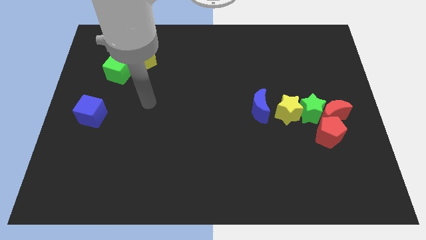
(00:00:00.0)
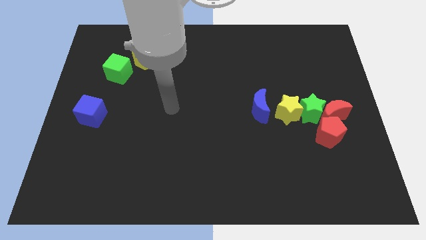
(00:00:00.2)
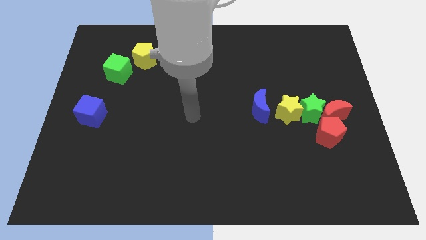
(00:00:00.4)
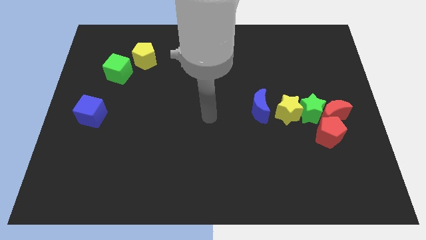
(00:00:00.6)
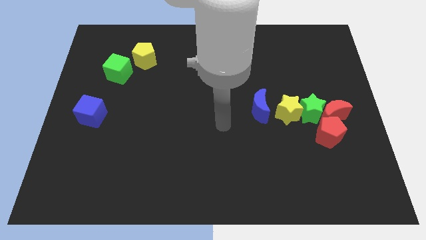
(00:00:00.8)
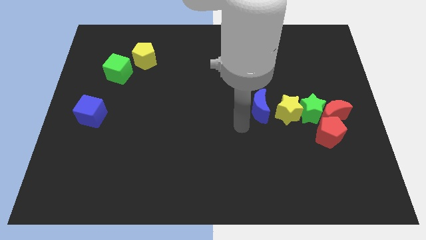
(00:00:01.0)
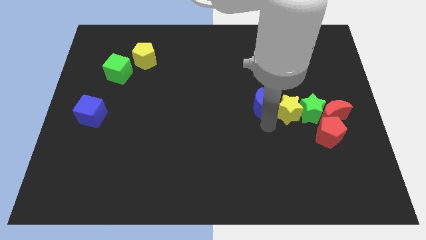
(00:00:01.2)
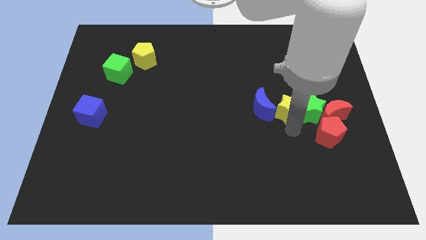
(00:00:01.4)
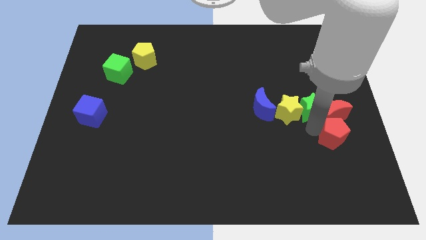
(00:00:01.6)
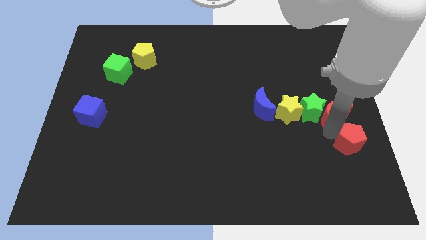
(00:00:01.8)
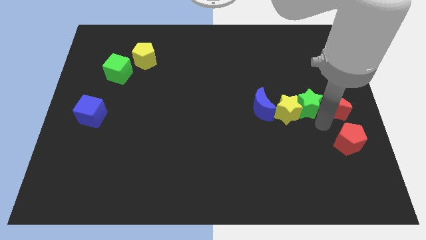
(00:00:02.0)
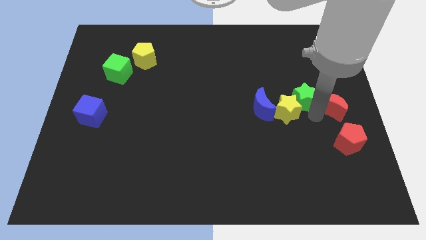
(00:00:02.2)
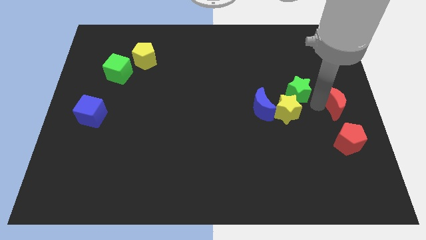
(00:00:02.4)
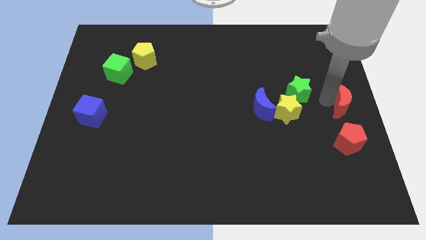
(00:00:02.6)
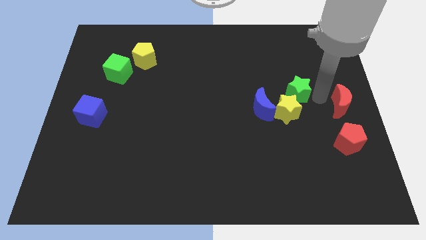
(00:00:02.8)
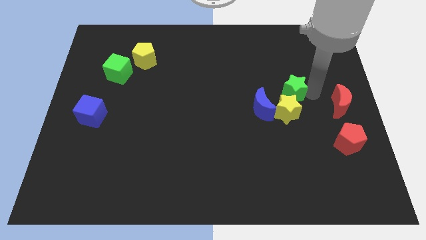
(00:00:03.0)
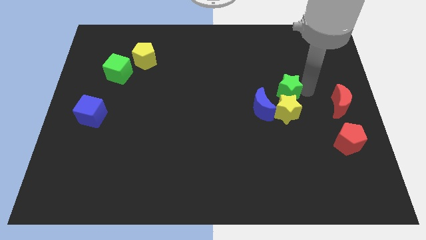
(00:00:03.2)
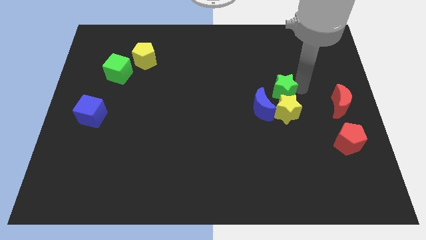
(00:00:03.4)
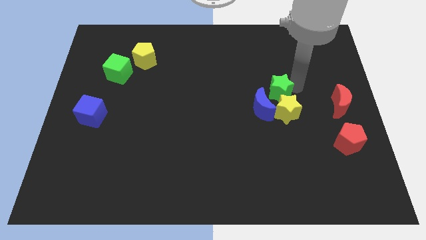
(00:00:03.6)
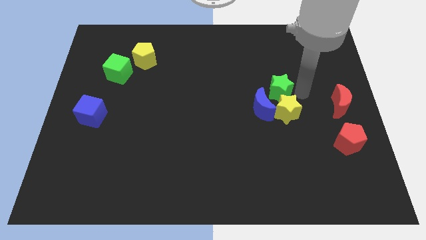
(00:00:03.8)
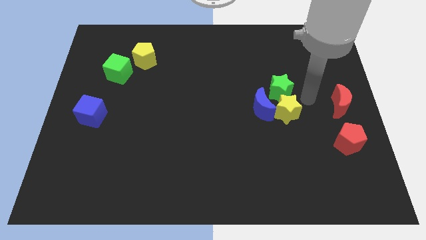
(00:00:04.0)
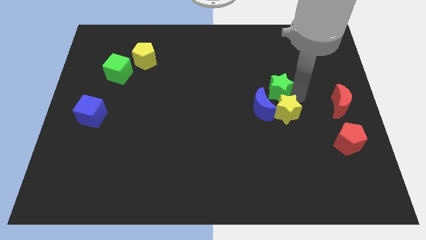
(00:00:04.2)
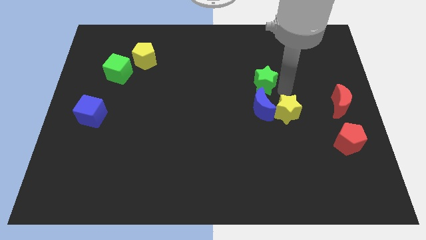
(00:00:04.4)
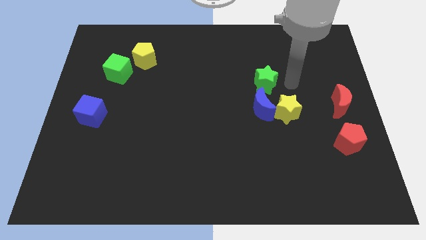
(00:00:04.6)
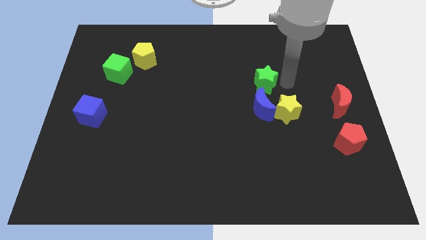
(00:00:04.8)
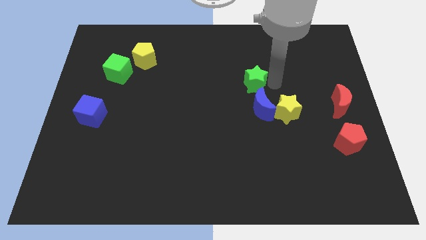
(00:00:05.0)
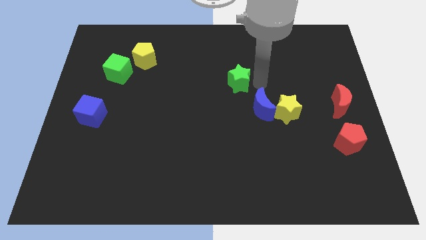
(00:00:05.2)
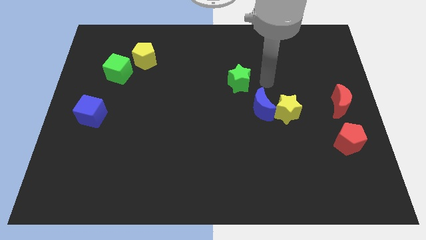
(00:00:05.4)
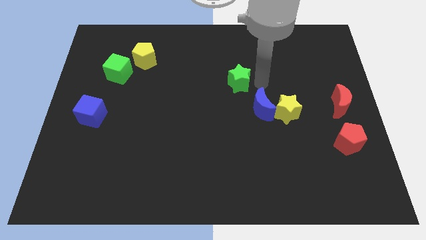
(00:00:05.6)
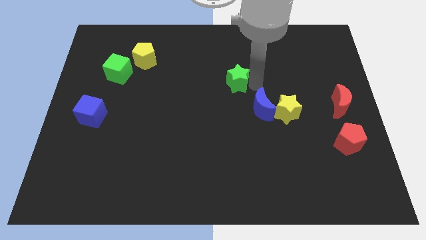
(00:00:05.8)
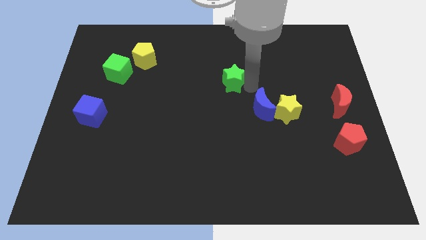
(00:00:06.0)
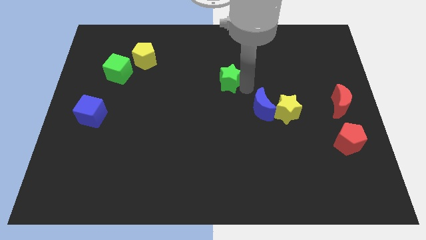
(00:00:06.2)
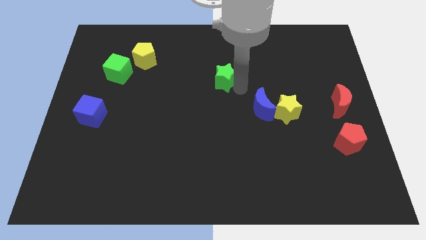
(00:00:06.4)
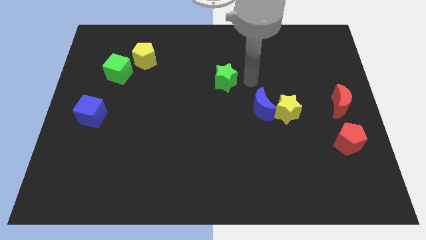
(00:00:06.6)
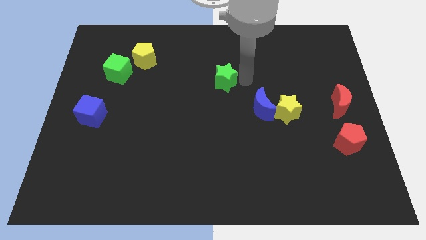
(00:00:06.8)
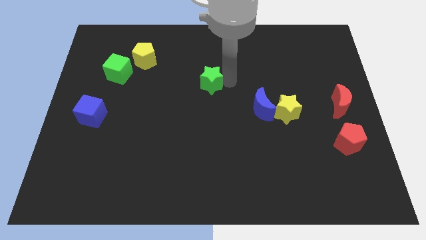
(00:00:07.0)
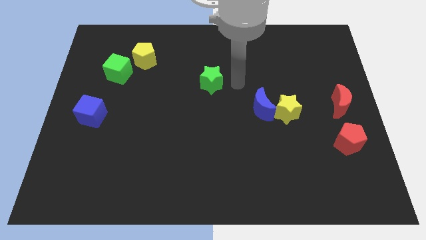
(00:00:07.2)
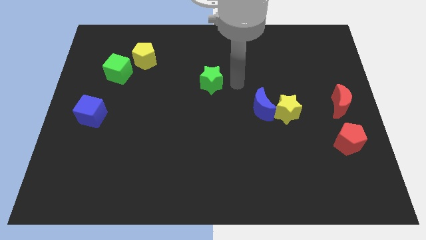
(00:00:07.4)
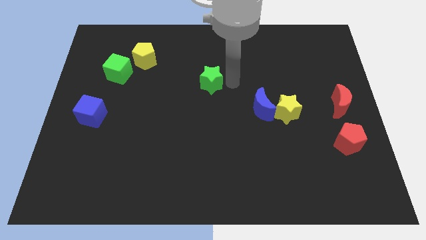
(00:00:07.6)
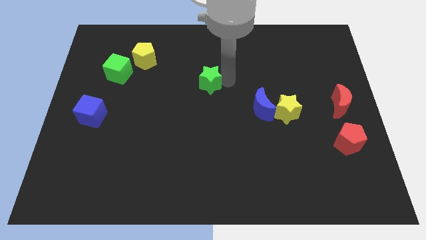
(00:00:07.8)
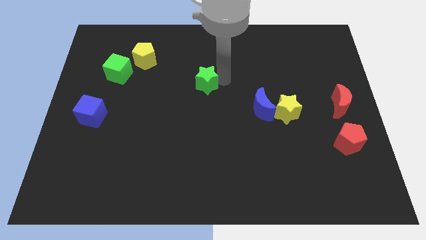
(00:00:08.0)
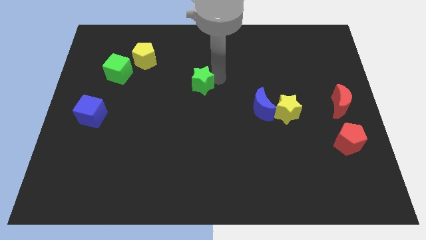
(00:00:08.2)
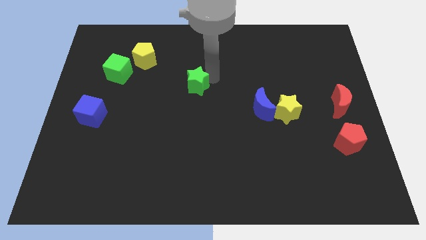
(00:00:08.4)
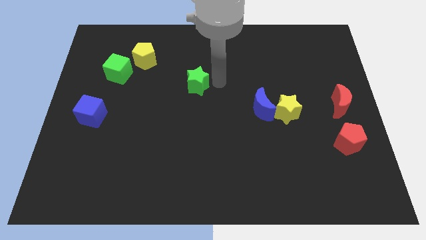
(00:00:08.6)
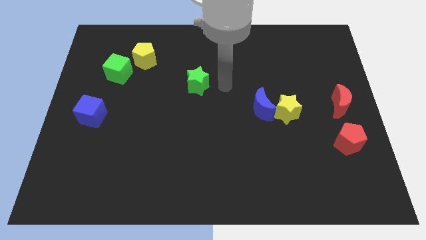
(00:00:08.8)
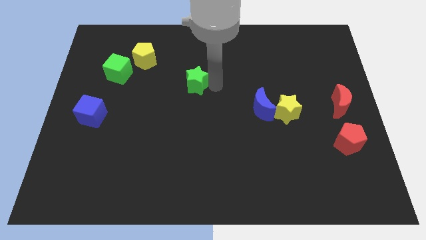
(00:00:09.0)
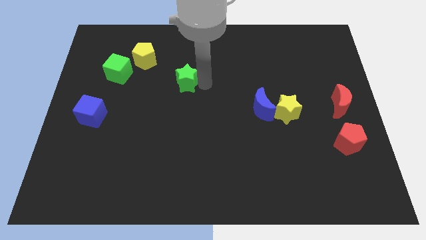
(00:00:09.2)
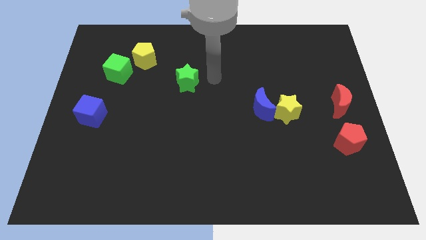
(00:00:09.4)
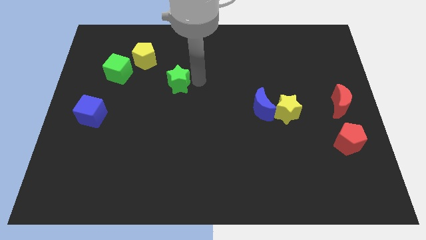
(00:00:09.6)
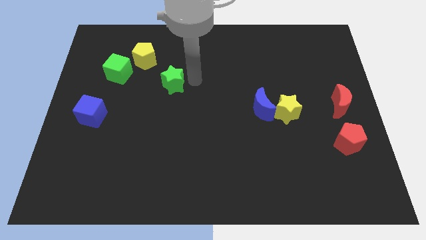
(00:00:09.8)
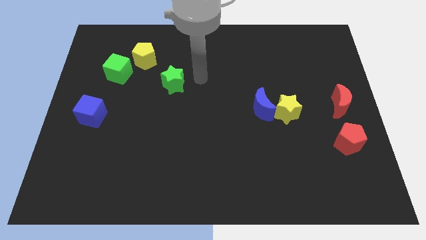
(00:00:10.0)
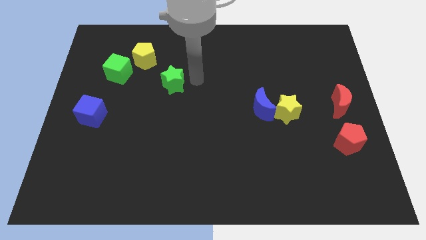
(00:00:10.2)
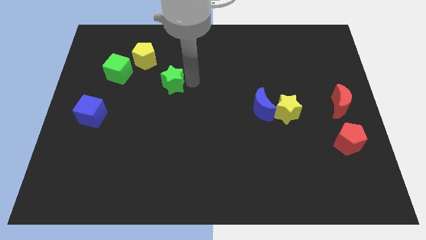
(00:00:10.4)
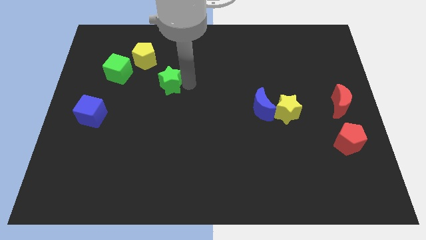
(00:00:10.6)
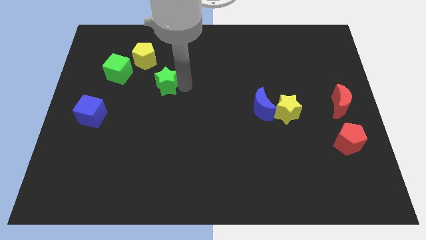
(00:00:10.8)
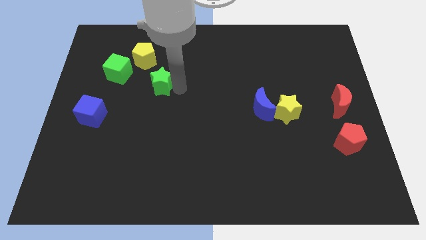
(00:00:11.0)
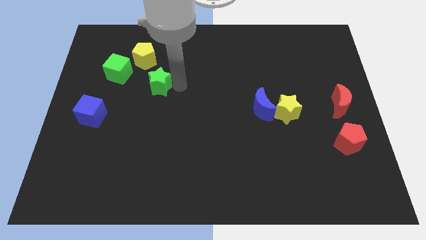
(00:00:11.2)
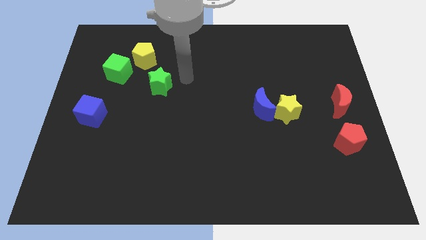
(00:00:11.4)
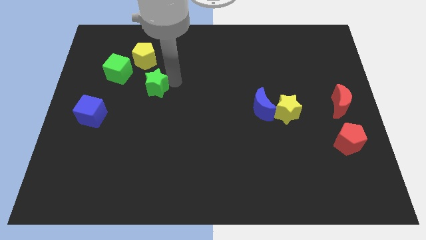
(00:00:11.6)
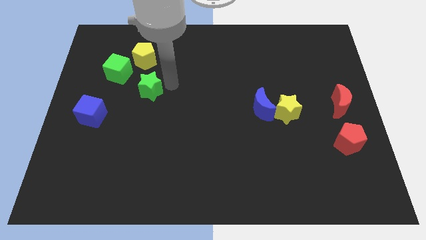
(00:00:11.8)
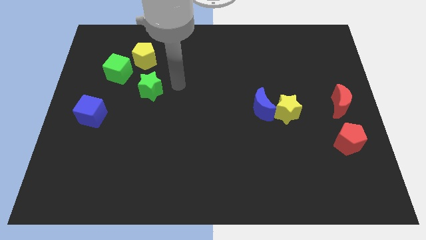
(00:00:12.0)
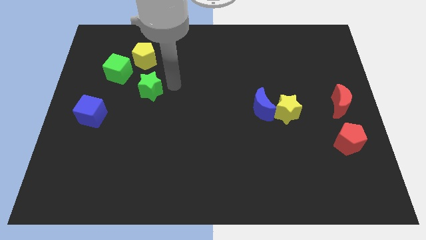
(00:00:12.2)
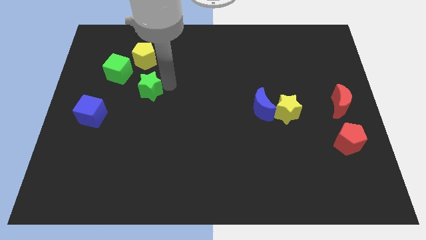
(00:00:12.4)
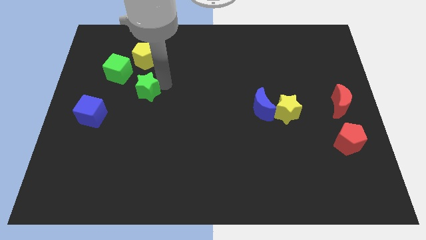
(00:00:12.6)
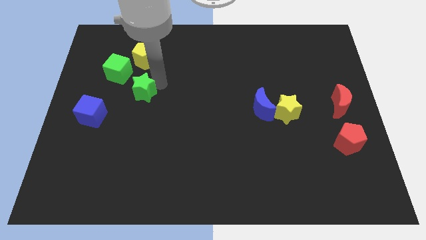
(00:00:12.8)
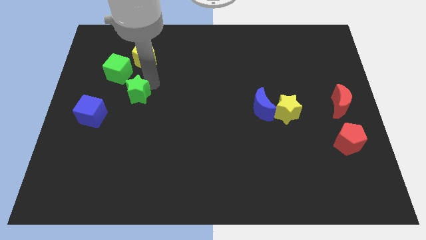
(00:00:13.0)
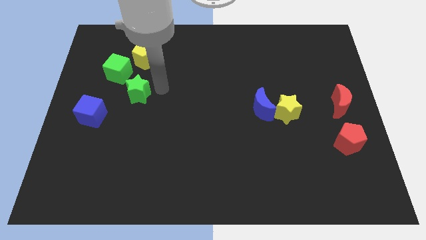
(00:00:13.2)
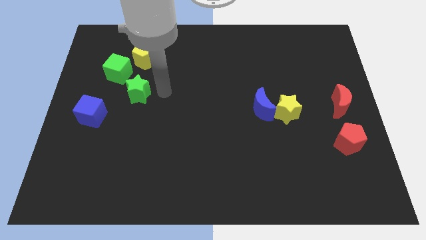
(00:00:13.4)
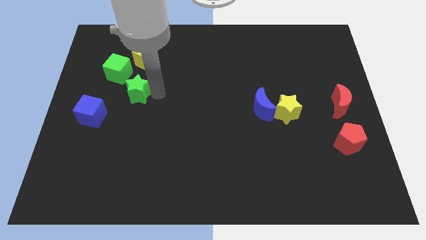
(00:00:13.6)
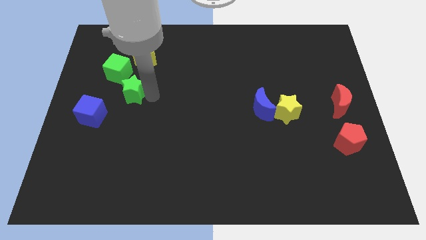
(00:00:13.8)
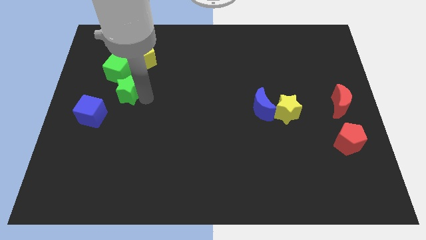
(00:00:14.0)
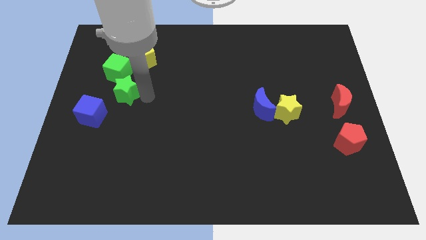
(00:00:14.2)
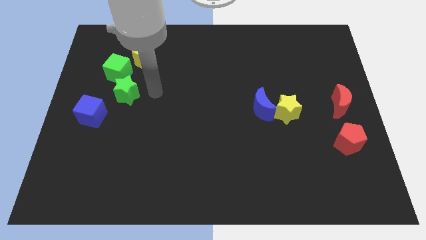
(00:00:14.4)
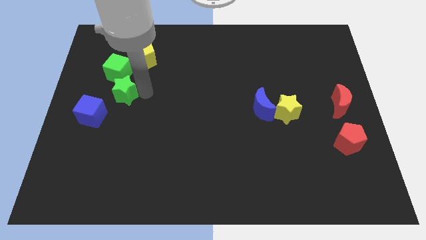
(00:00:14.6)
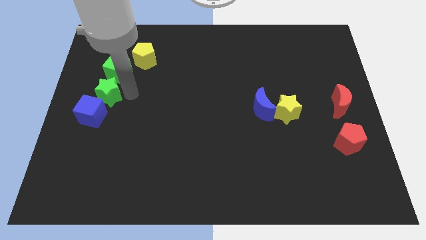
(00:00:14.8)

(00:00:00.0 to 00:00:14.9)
put the green star to the left side
